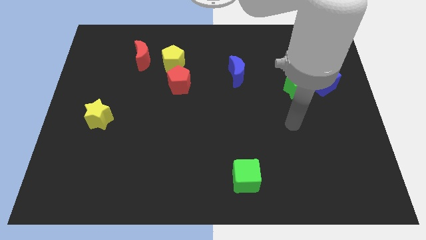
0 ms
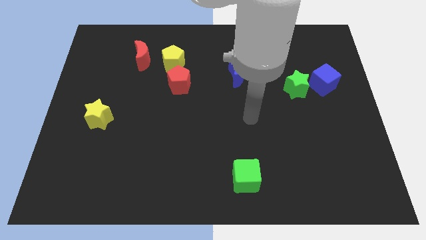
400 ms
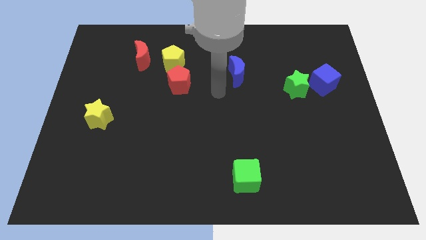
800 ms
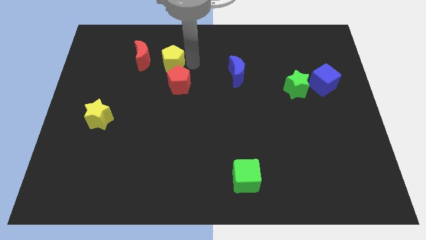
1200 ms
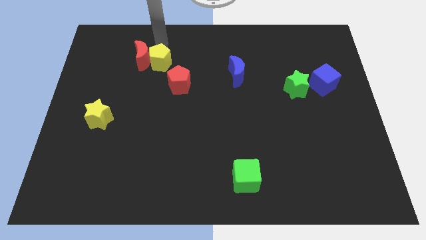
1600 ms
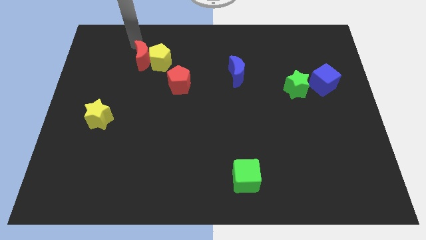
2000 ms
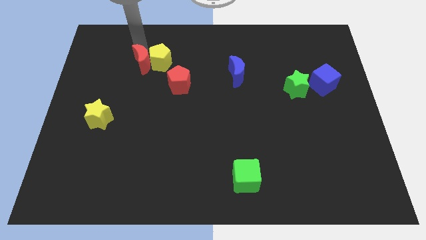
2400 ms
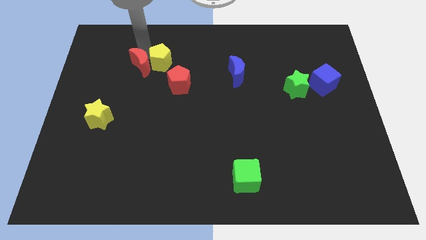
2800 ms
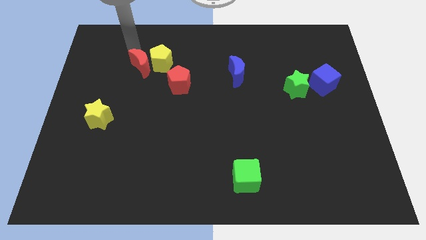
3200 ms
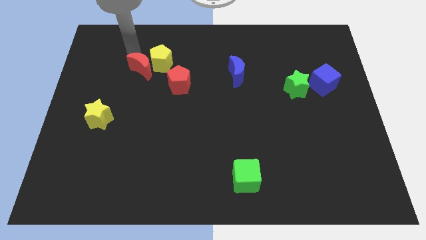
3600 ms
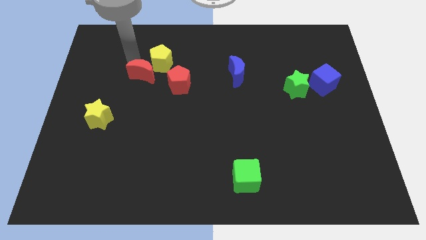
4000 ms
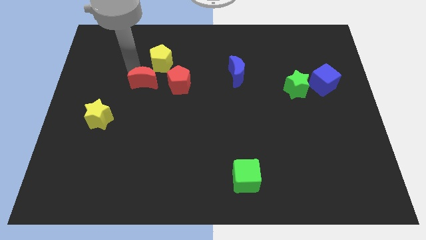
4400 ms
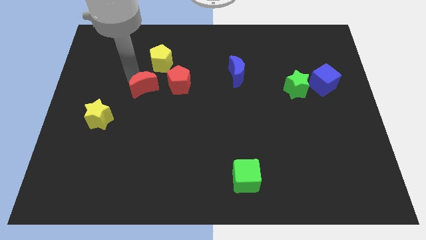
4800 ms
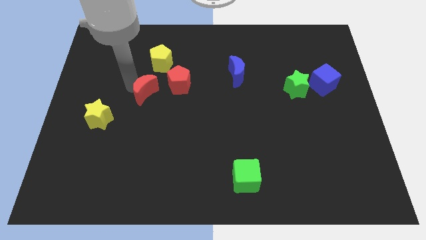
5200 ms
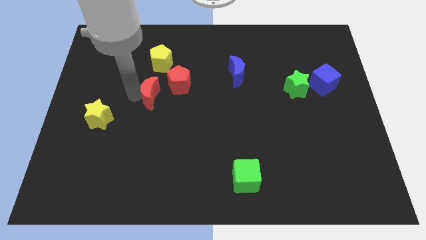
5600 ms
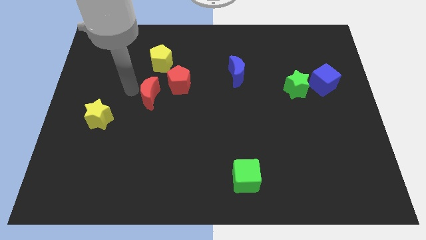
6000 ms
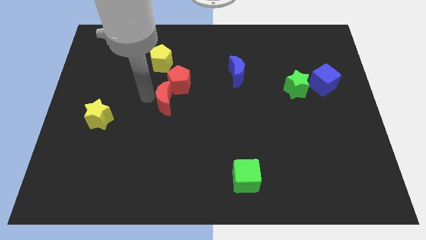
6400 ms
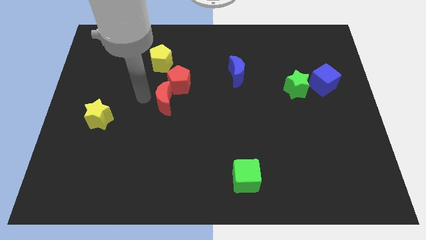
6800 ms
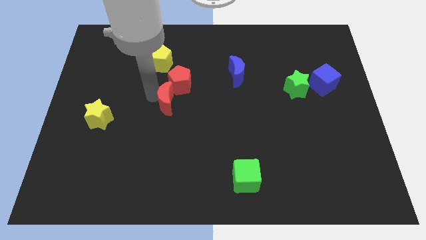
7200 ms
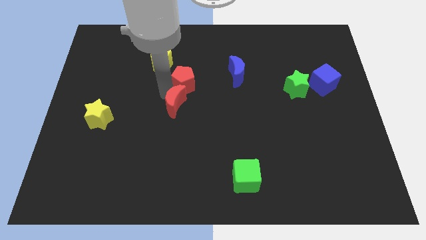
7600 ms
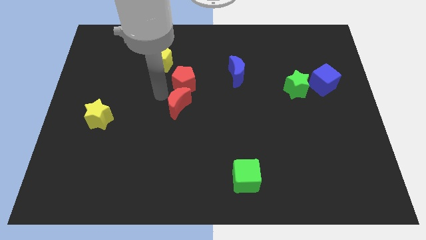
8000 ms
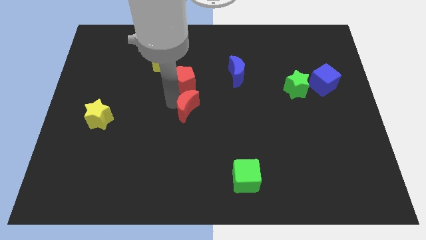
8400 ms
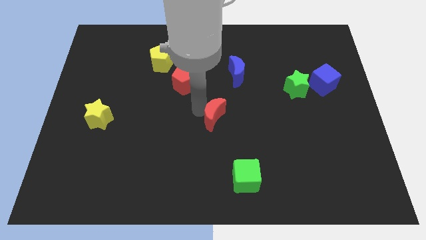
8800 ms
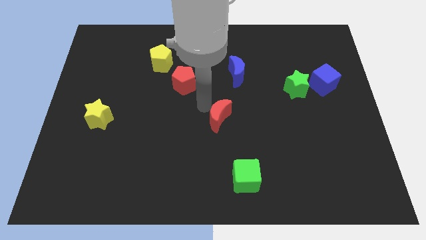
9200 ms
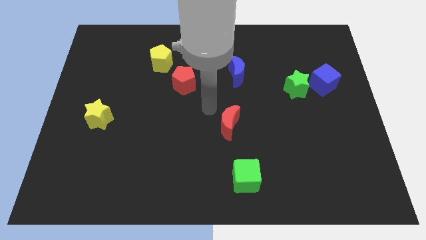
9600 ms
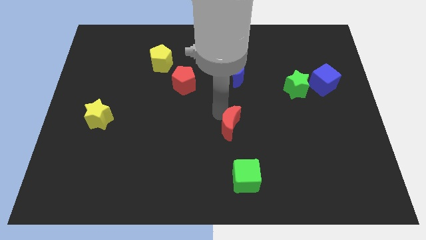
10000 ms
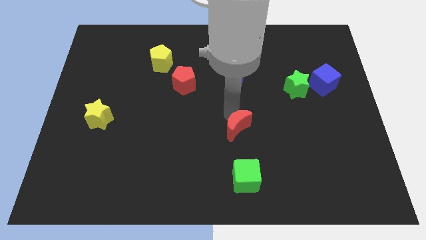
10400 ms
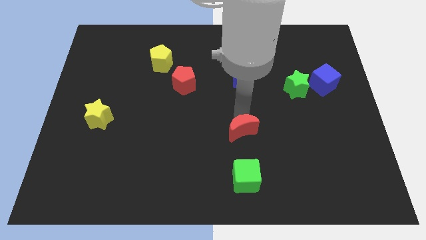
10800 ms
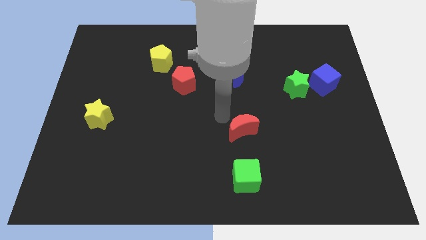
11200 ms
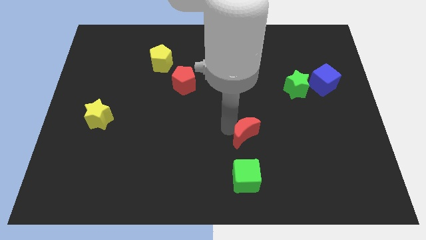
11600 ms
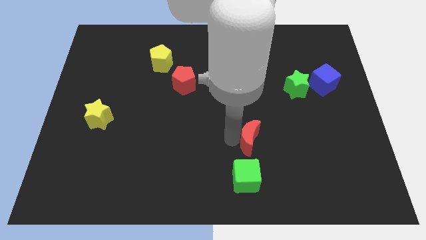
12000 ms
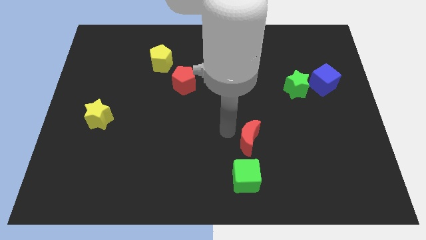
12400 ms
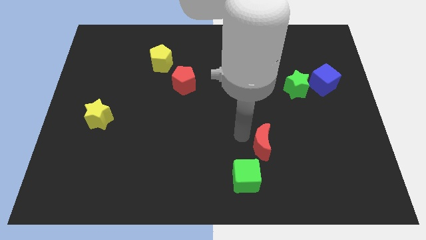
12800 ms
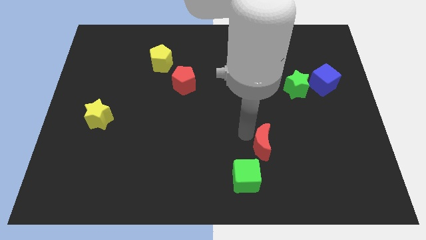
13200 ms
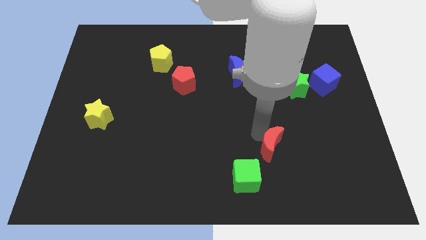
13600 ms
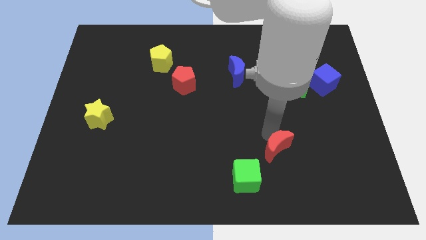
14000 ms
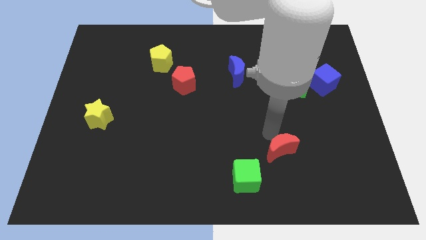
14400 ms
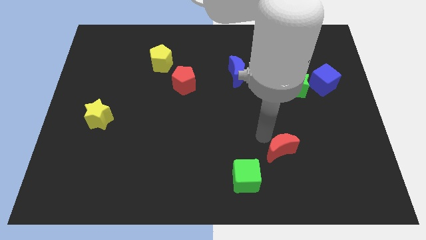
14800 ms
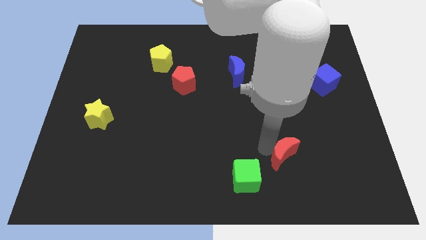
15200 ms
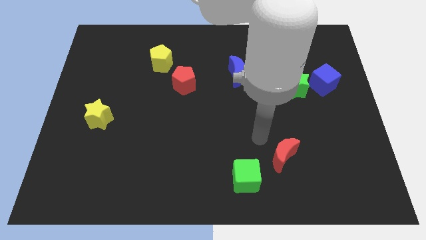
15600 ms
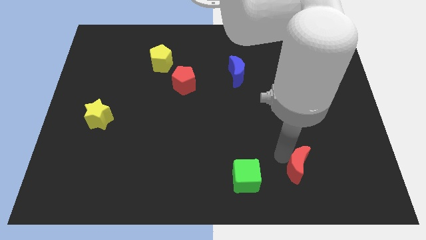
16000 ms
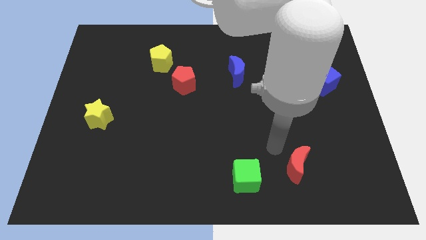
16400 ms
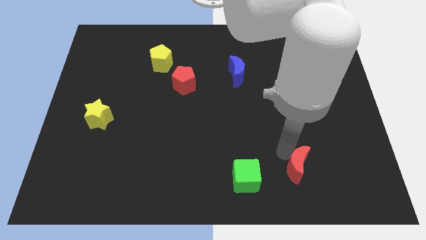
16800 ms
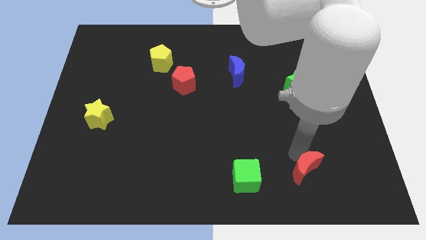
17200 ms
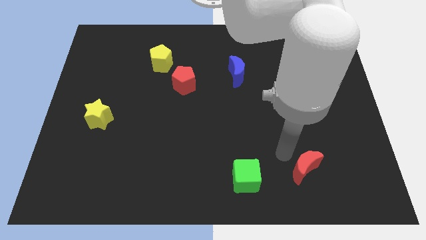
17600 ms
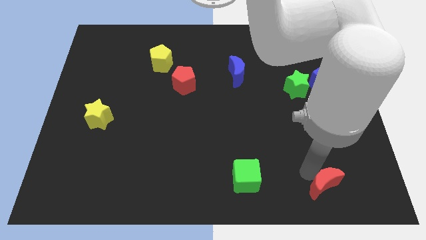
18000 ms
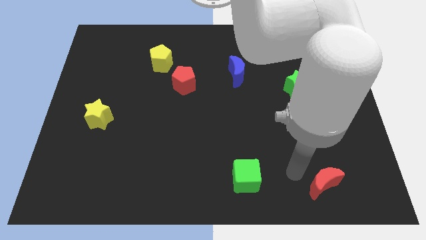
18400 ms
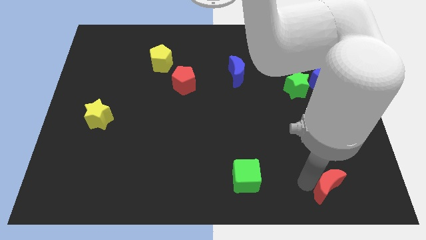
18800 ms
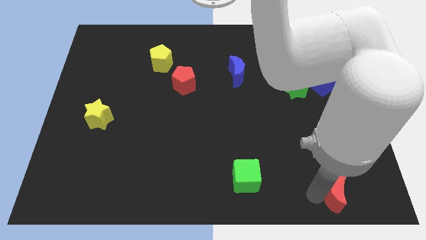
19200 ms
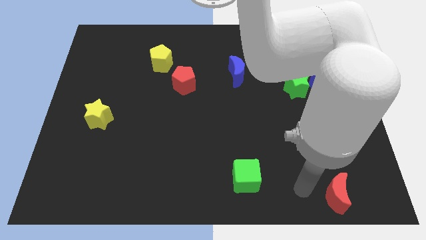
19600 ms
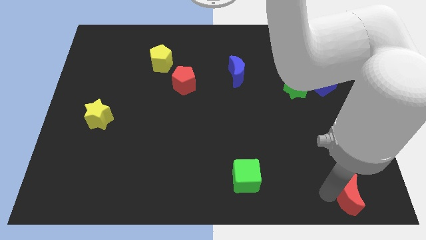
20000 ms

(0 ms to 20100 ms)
move the red moon to the lower right corner

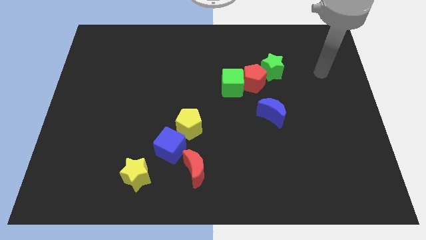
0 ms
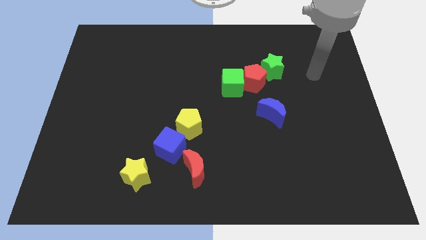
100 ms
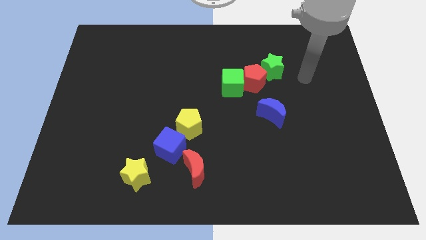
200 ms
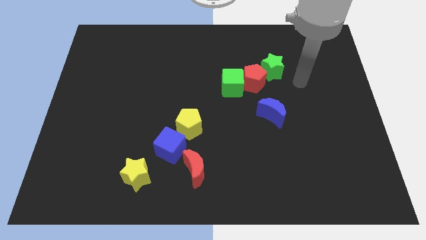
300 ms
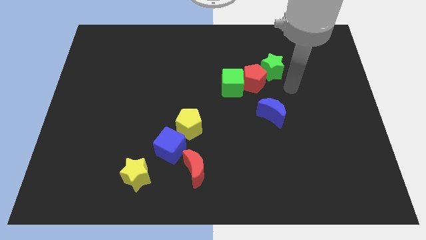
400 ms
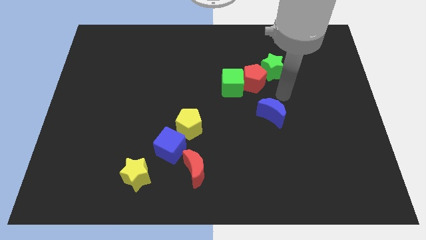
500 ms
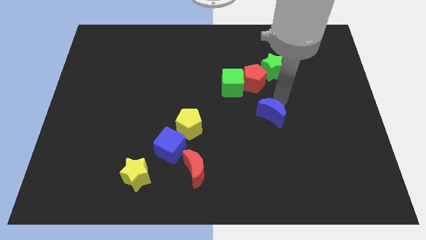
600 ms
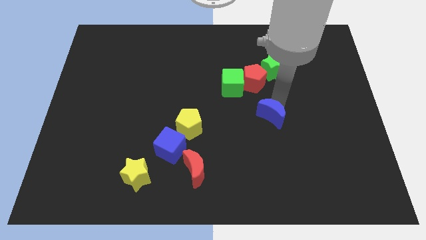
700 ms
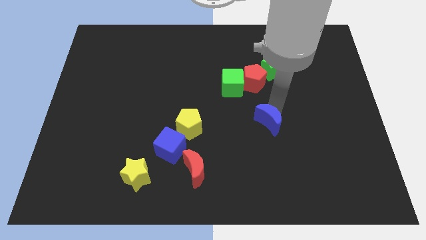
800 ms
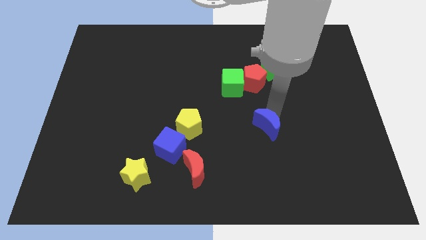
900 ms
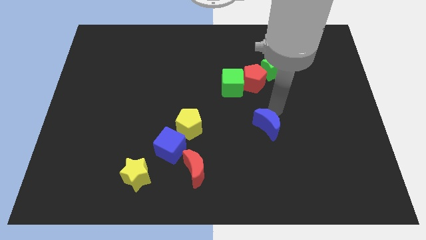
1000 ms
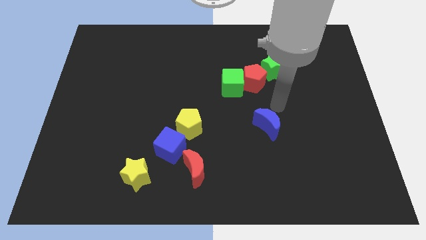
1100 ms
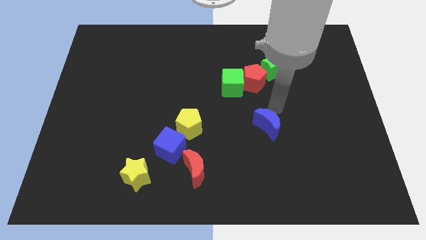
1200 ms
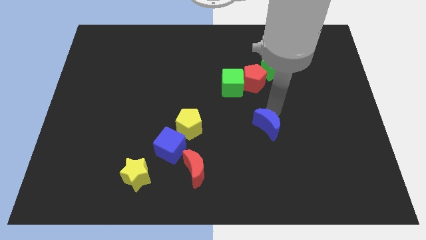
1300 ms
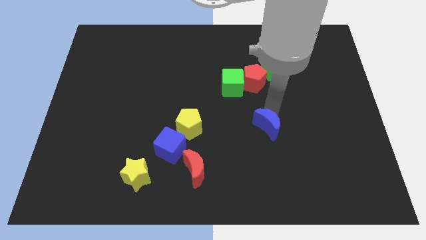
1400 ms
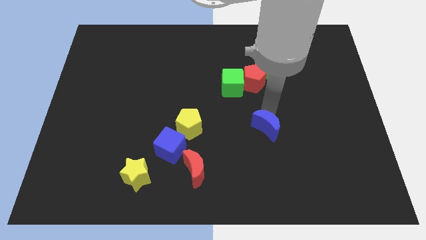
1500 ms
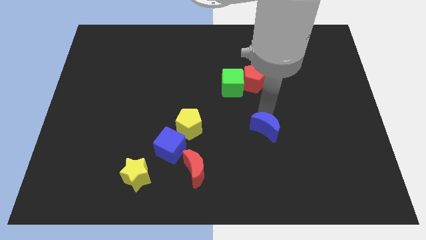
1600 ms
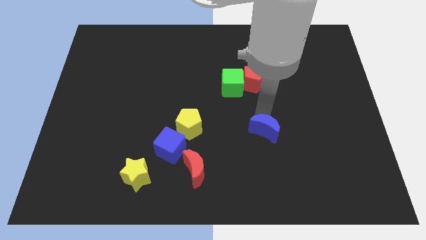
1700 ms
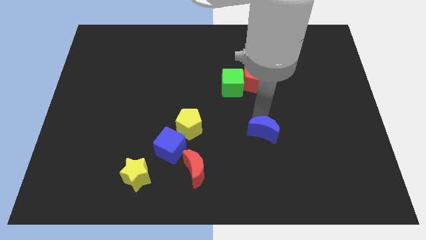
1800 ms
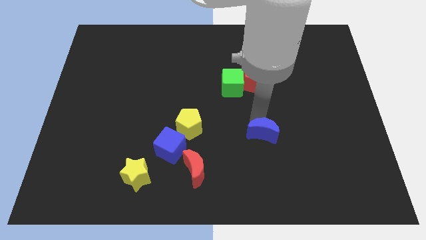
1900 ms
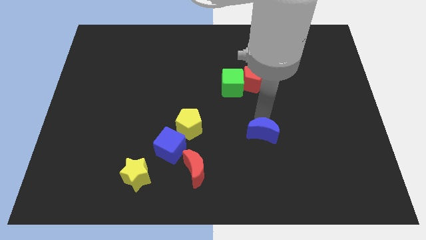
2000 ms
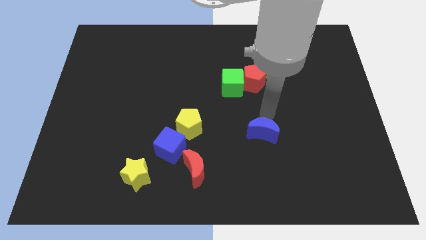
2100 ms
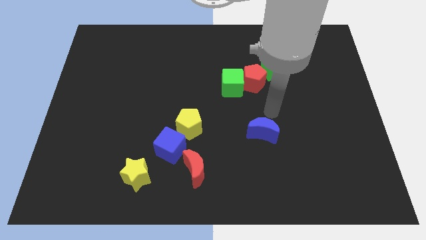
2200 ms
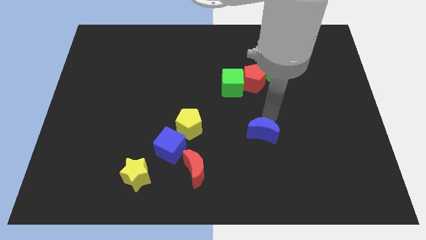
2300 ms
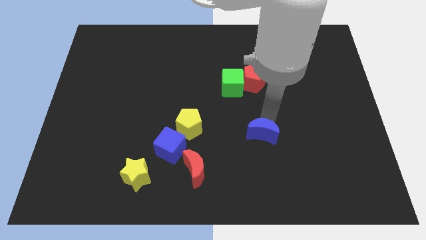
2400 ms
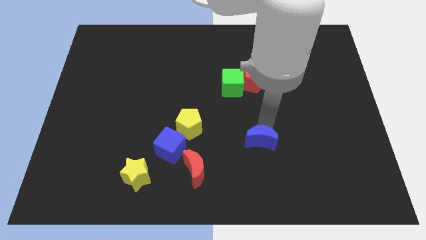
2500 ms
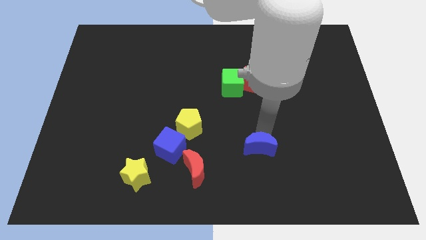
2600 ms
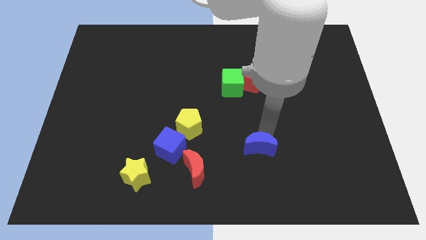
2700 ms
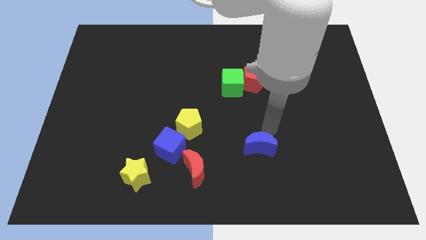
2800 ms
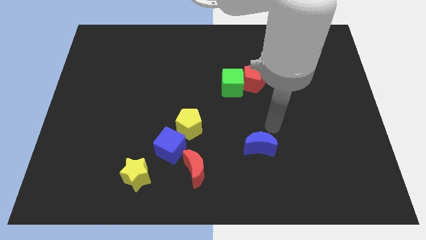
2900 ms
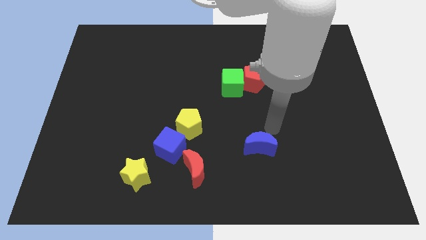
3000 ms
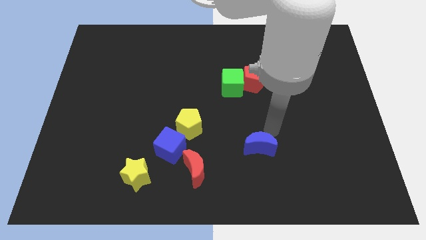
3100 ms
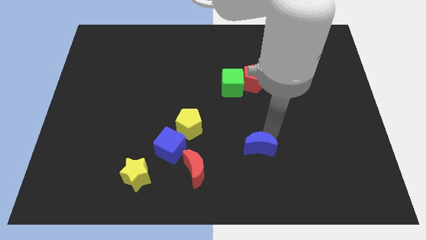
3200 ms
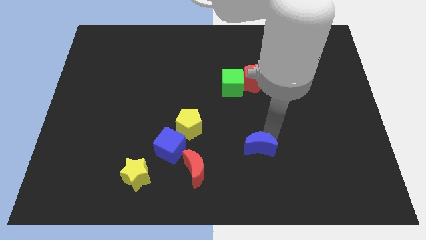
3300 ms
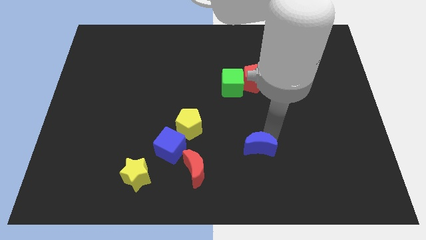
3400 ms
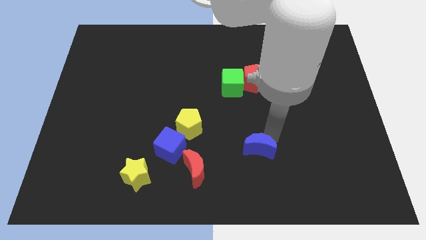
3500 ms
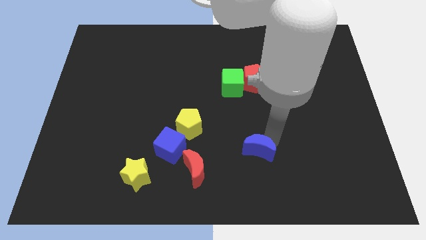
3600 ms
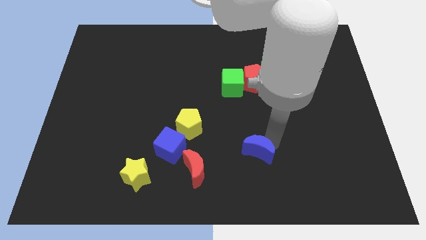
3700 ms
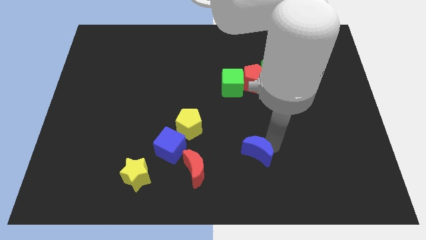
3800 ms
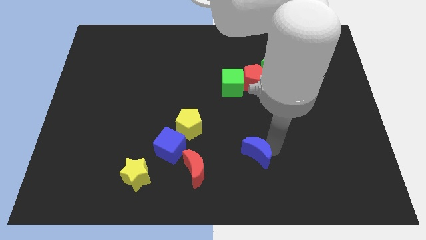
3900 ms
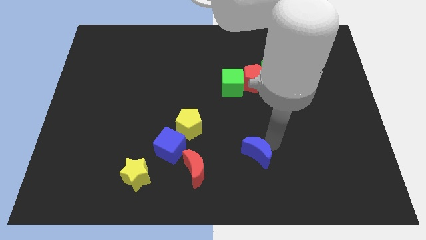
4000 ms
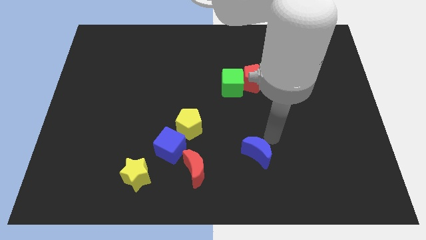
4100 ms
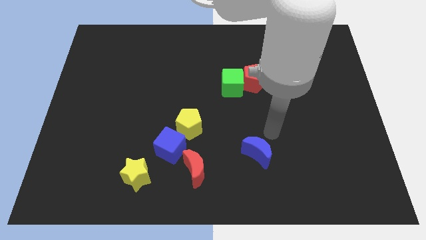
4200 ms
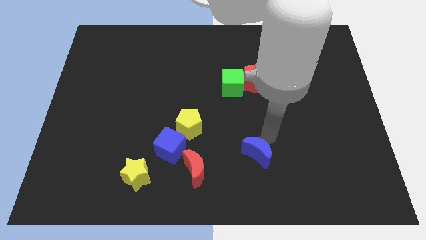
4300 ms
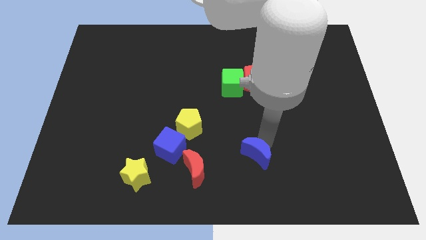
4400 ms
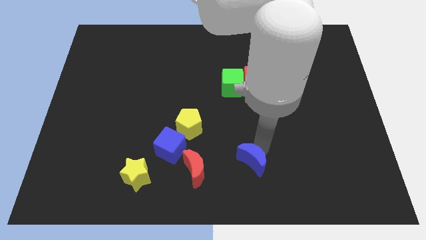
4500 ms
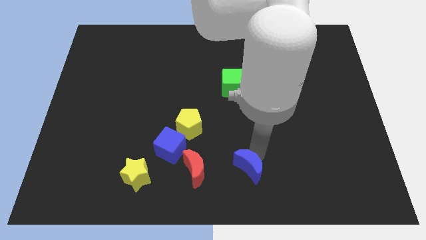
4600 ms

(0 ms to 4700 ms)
put the blue moon to the bottom
